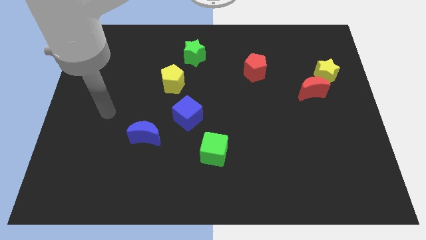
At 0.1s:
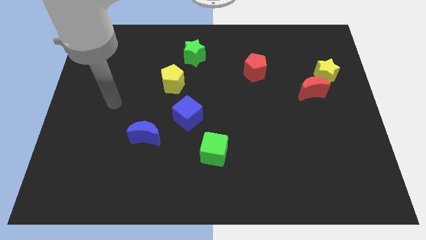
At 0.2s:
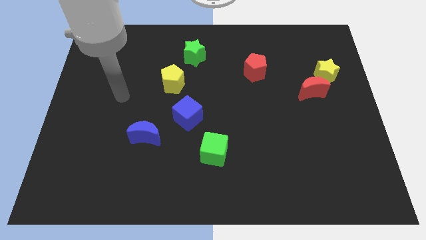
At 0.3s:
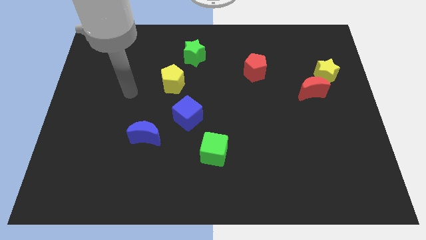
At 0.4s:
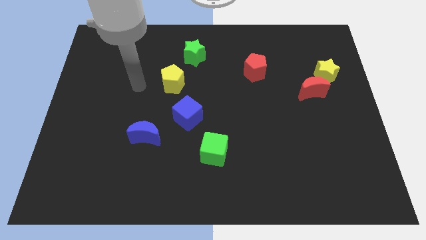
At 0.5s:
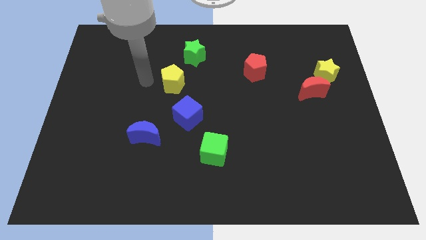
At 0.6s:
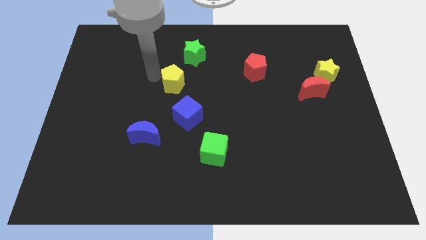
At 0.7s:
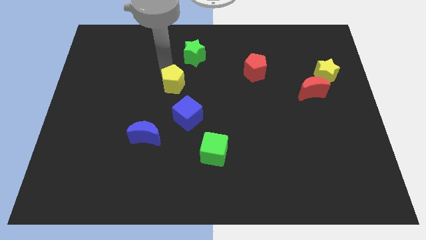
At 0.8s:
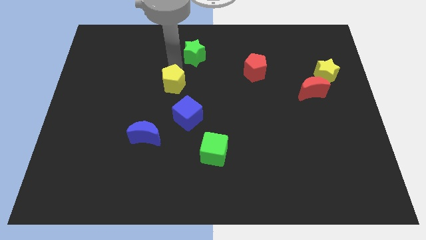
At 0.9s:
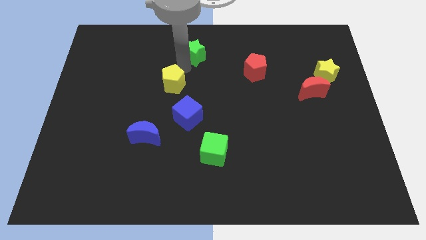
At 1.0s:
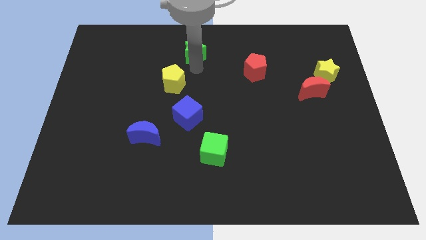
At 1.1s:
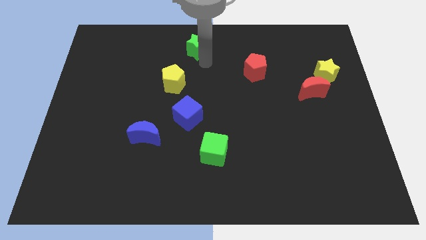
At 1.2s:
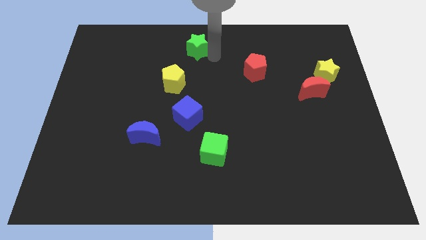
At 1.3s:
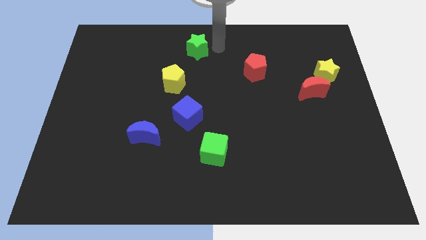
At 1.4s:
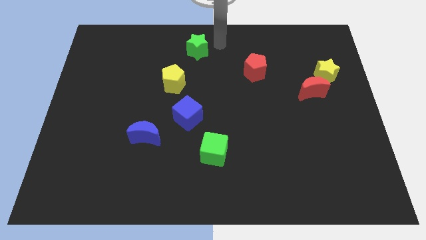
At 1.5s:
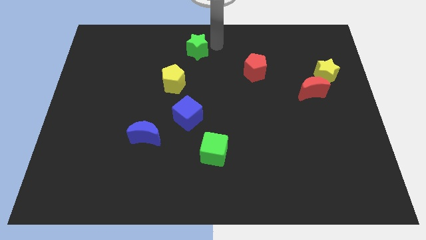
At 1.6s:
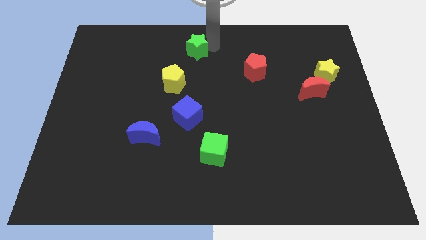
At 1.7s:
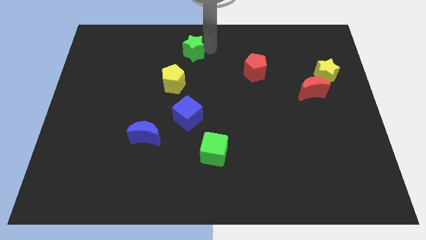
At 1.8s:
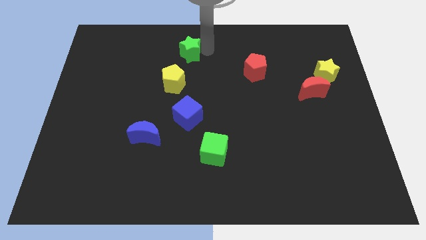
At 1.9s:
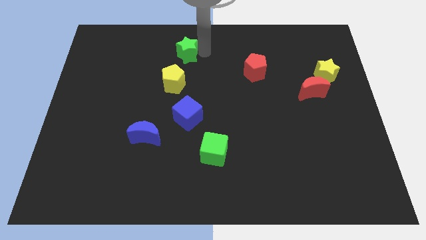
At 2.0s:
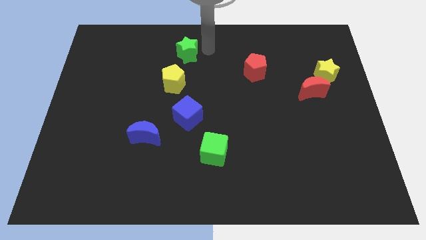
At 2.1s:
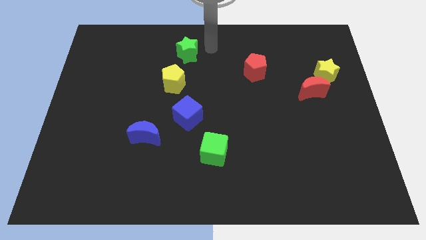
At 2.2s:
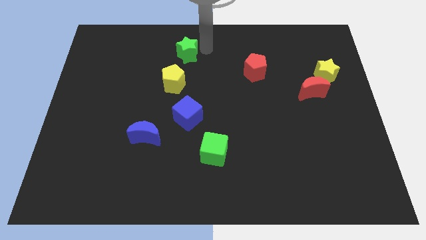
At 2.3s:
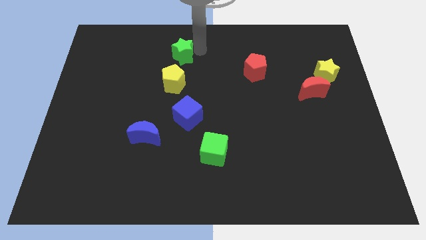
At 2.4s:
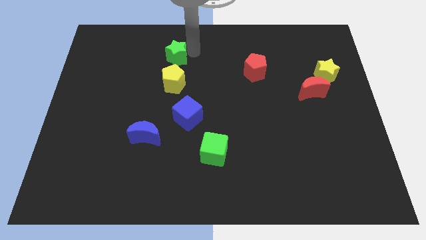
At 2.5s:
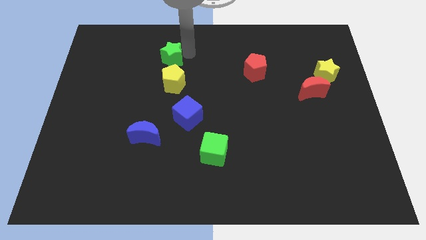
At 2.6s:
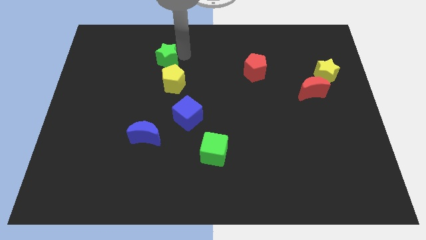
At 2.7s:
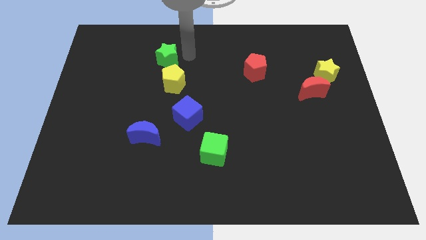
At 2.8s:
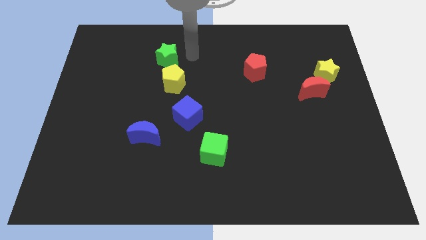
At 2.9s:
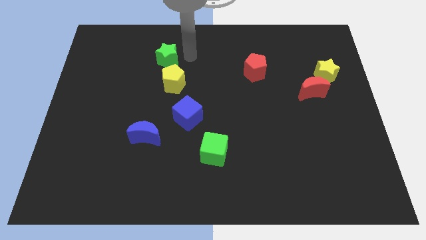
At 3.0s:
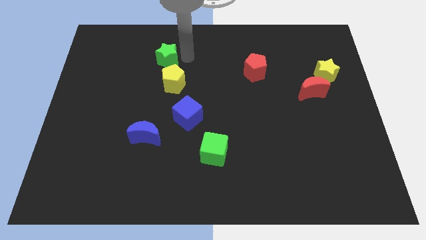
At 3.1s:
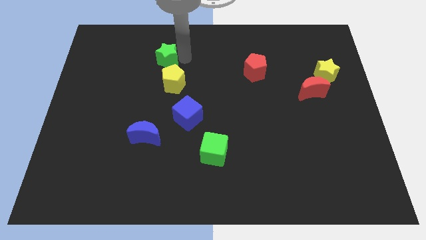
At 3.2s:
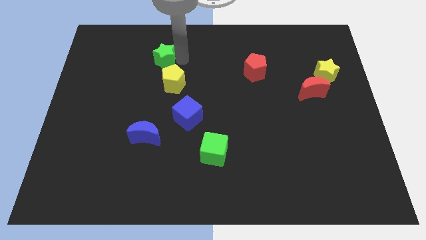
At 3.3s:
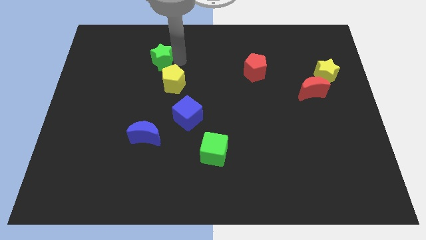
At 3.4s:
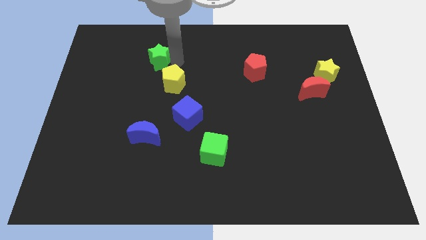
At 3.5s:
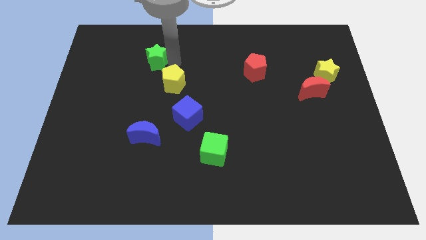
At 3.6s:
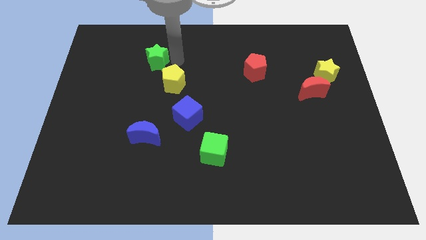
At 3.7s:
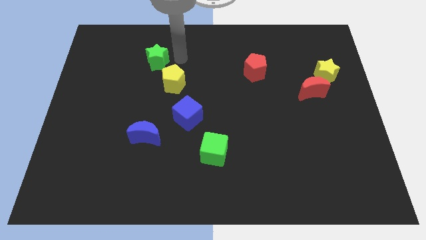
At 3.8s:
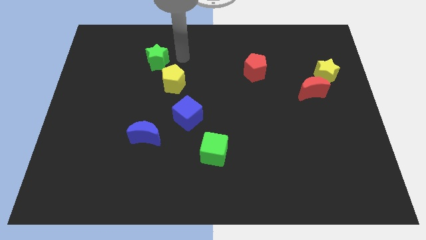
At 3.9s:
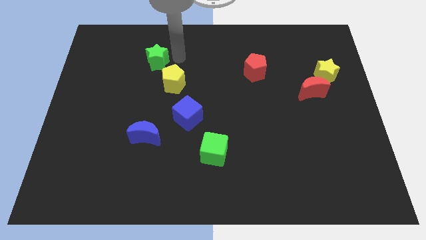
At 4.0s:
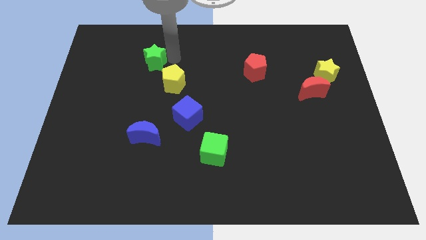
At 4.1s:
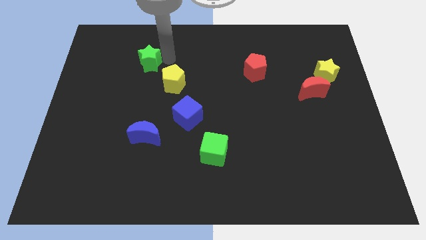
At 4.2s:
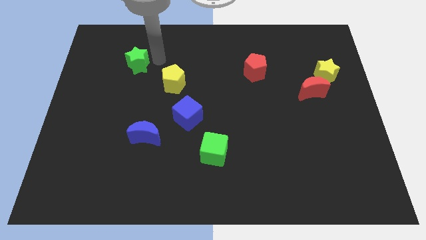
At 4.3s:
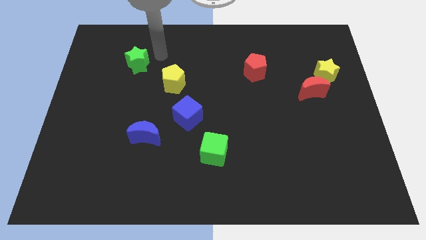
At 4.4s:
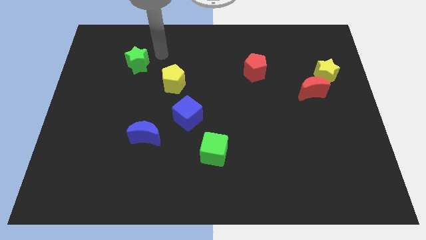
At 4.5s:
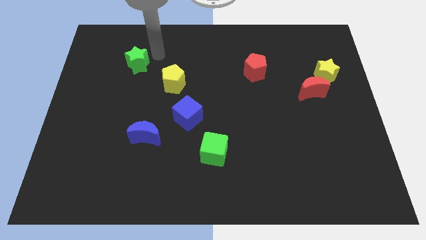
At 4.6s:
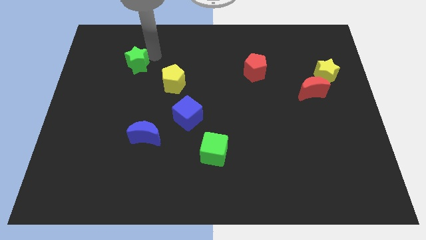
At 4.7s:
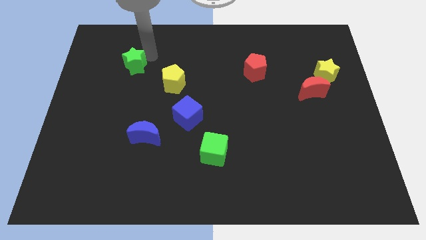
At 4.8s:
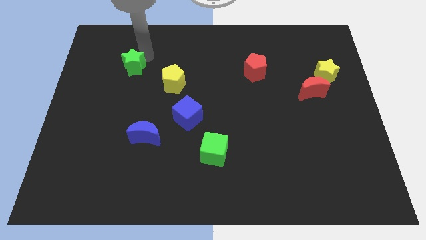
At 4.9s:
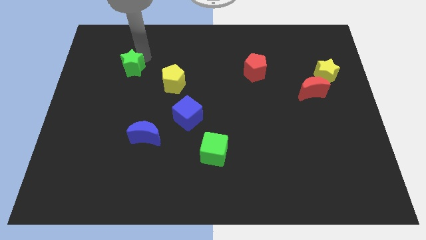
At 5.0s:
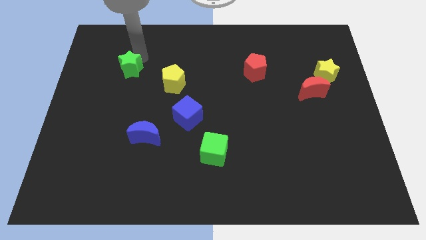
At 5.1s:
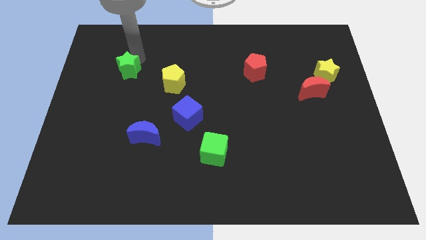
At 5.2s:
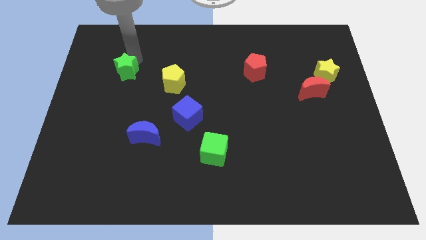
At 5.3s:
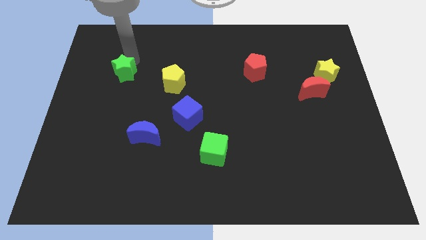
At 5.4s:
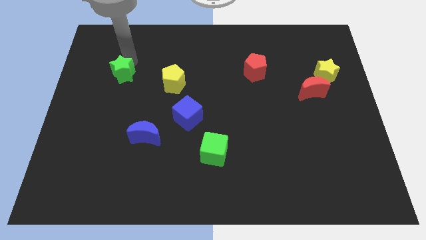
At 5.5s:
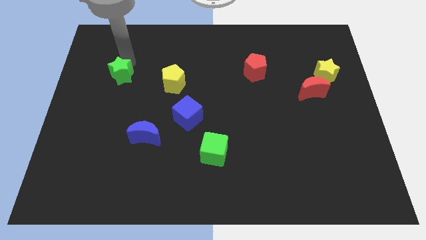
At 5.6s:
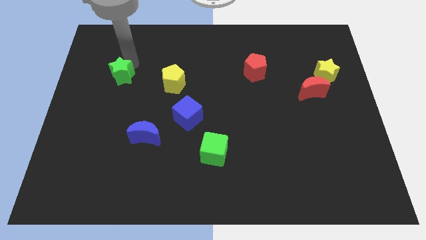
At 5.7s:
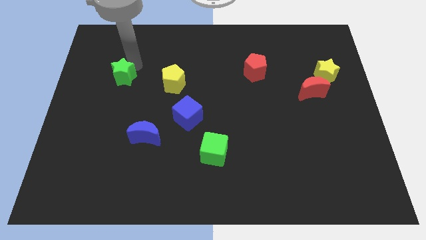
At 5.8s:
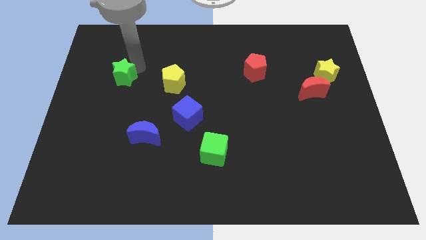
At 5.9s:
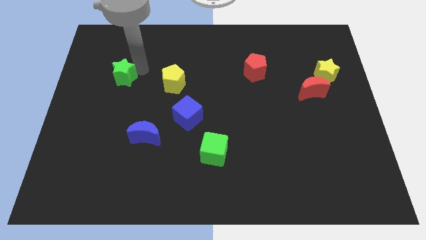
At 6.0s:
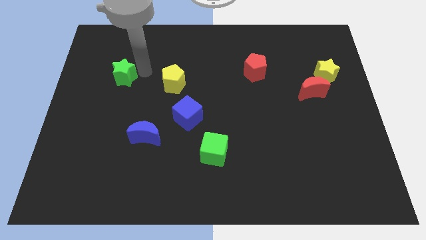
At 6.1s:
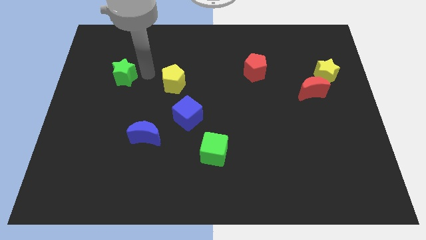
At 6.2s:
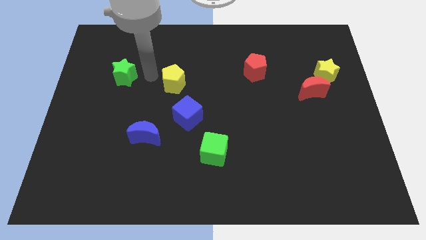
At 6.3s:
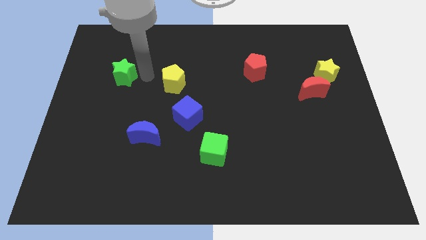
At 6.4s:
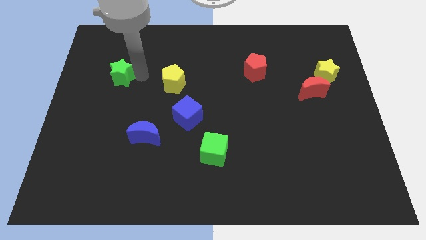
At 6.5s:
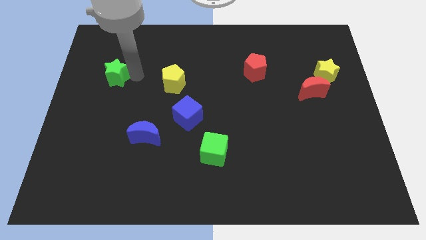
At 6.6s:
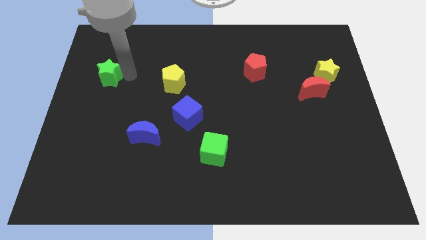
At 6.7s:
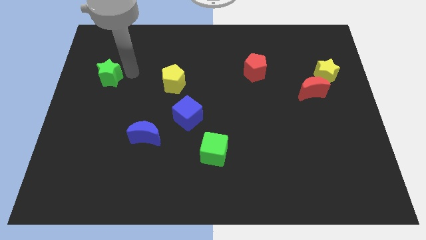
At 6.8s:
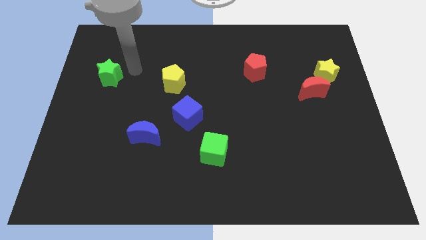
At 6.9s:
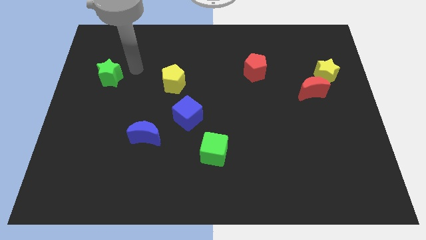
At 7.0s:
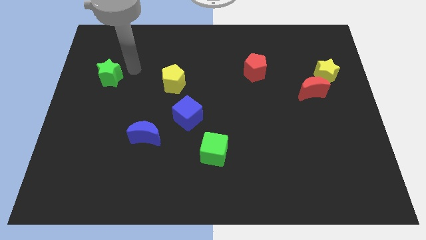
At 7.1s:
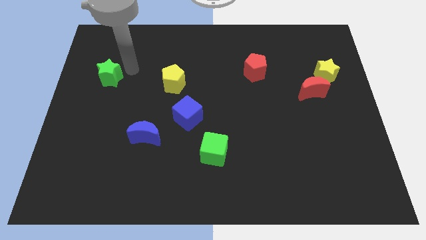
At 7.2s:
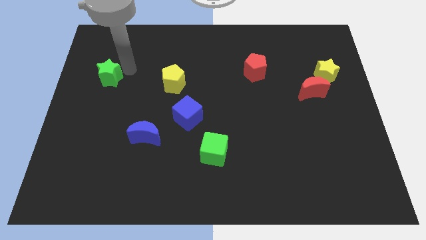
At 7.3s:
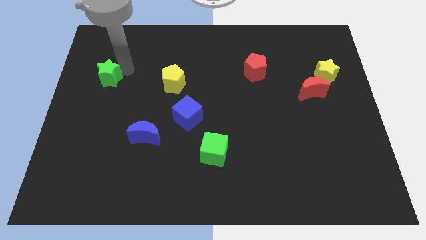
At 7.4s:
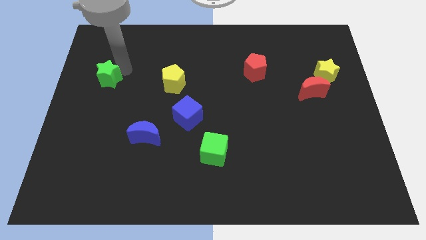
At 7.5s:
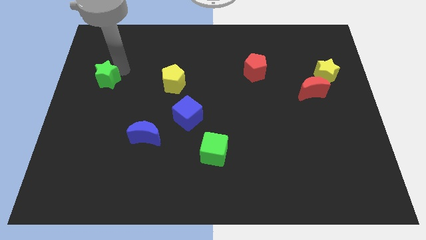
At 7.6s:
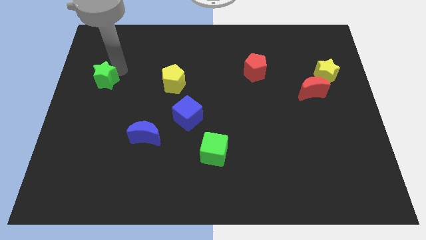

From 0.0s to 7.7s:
put the green star to the left side of the board
